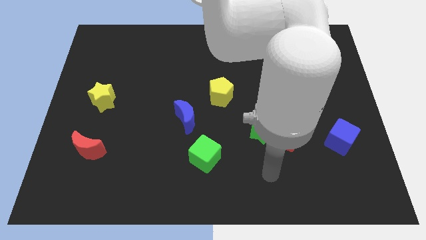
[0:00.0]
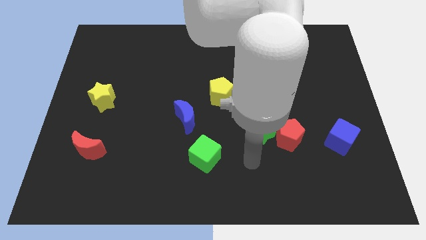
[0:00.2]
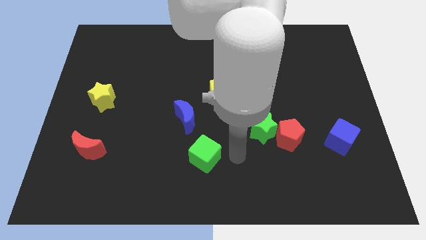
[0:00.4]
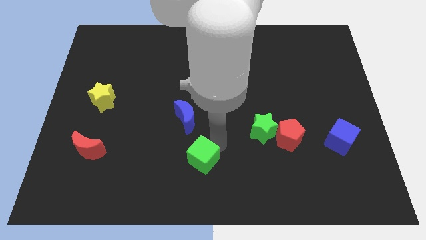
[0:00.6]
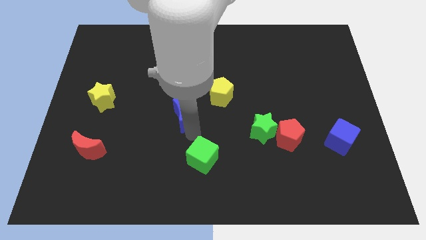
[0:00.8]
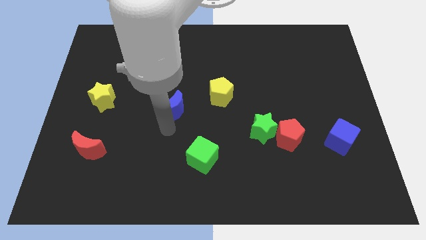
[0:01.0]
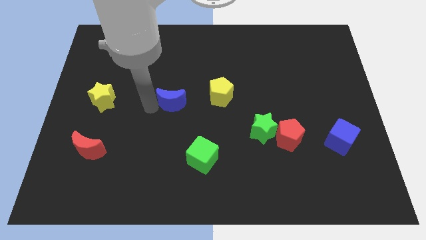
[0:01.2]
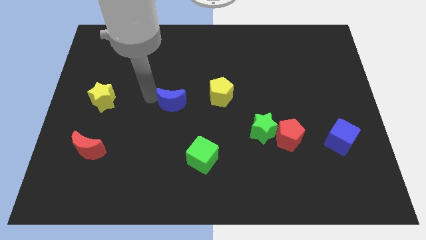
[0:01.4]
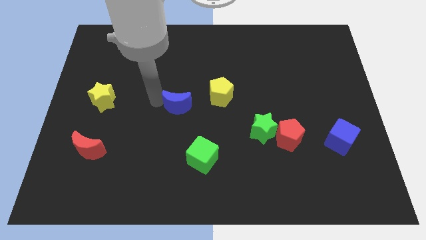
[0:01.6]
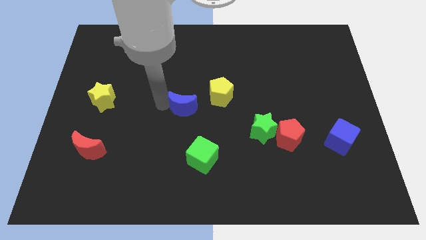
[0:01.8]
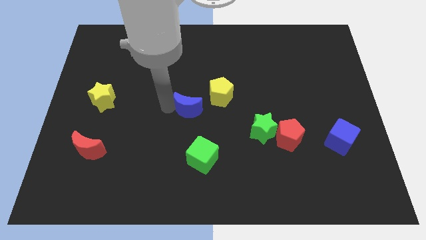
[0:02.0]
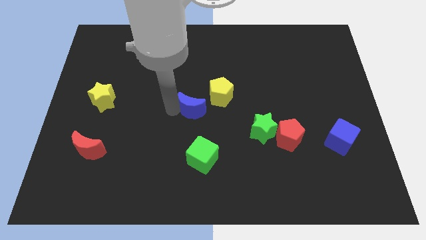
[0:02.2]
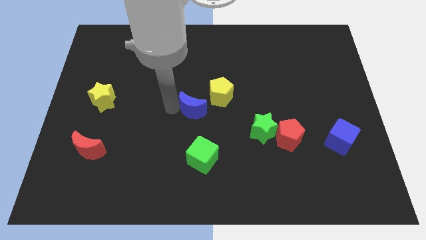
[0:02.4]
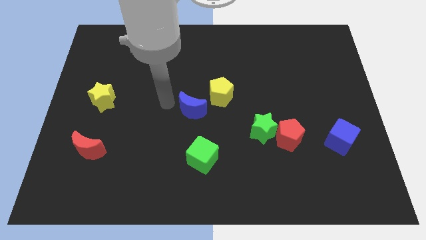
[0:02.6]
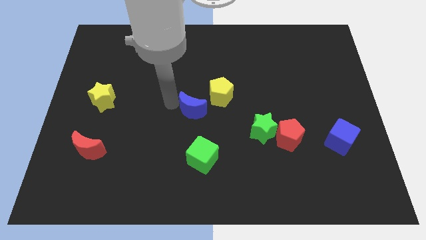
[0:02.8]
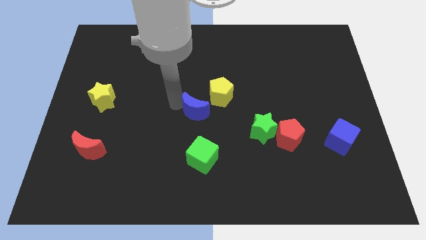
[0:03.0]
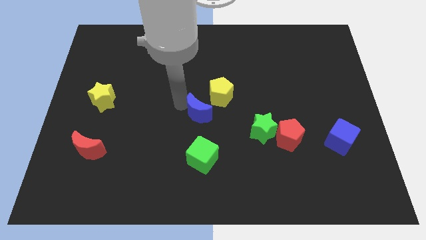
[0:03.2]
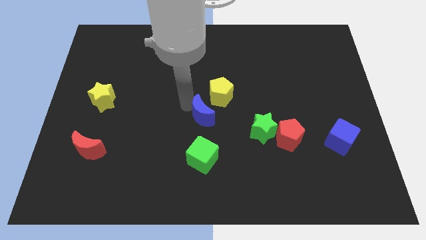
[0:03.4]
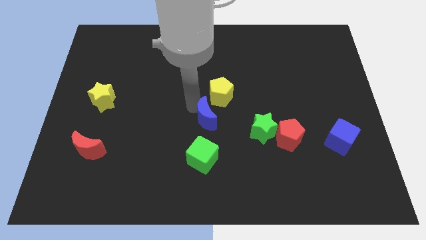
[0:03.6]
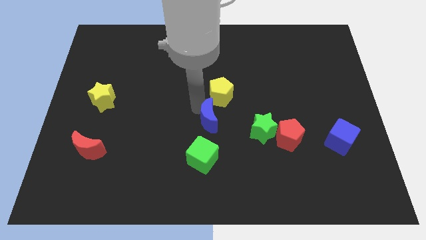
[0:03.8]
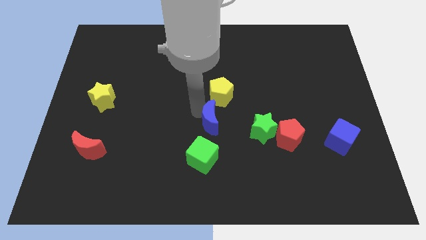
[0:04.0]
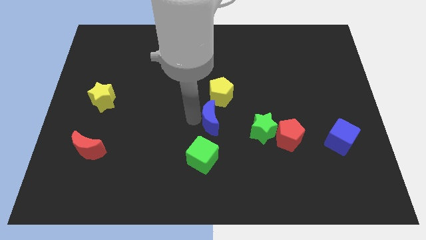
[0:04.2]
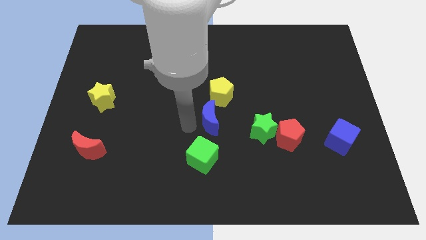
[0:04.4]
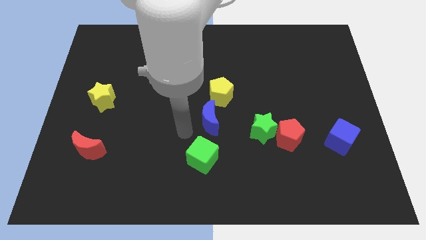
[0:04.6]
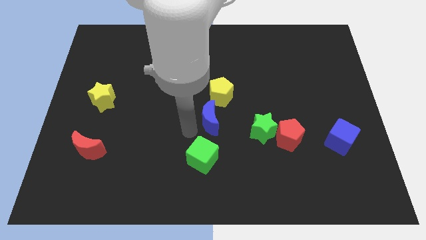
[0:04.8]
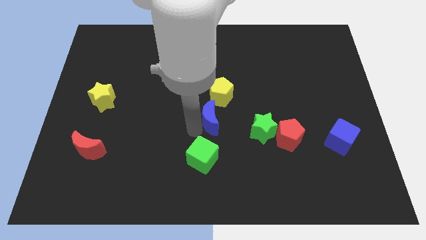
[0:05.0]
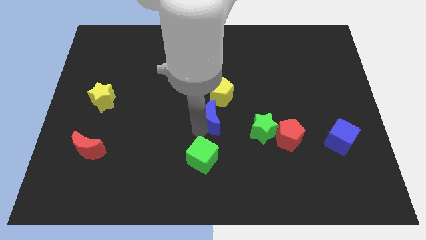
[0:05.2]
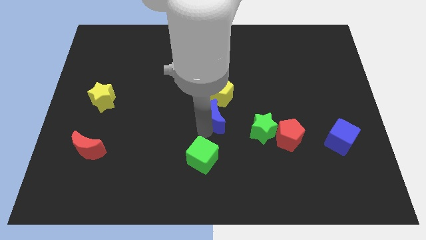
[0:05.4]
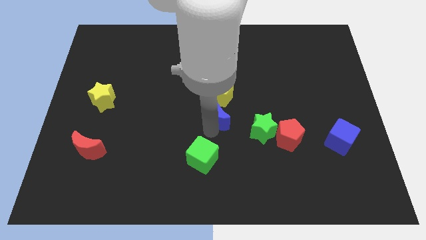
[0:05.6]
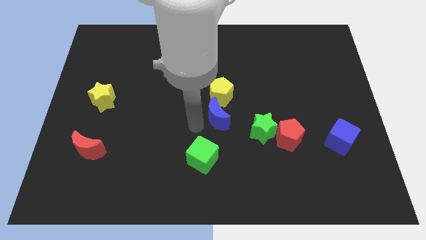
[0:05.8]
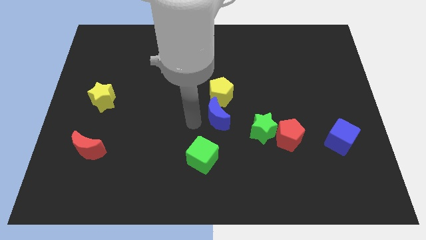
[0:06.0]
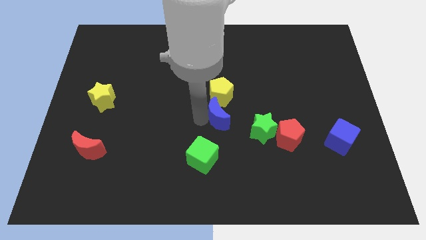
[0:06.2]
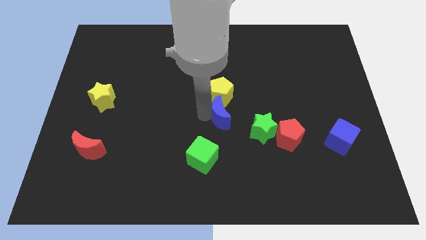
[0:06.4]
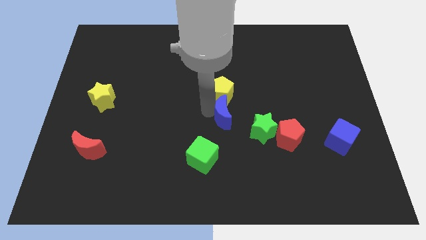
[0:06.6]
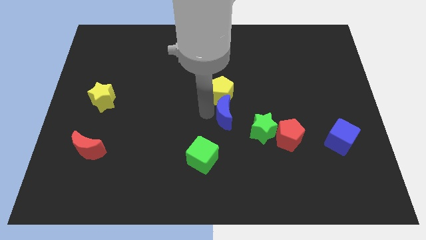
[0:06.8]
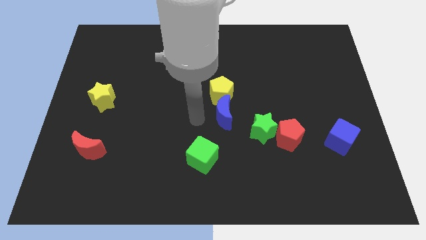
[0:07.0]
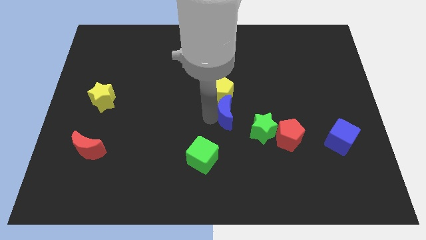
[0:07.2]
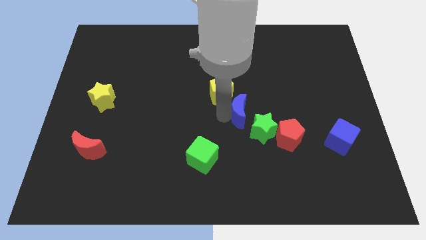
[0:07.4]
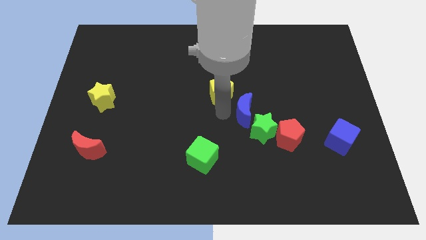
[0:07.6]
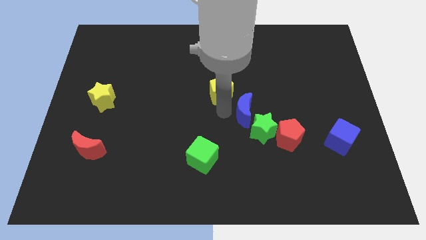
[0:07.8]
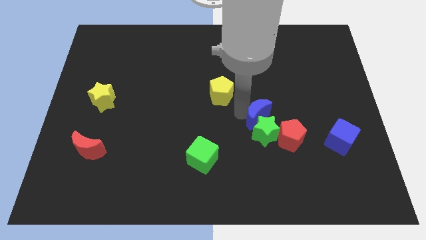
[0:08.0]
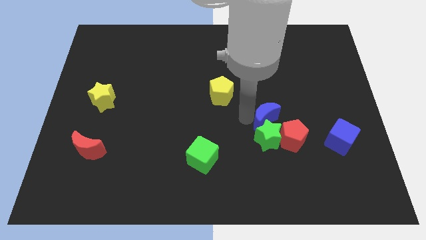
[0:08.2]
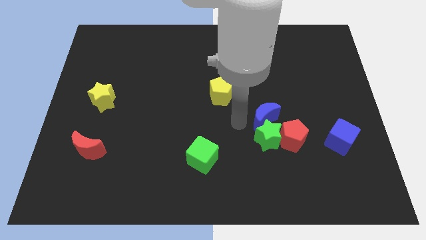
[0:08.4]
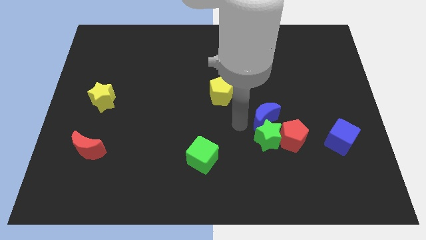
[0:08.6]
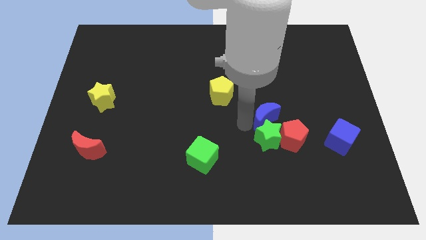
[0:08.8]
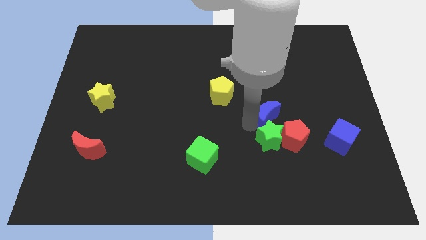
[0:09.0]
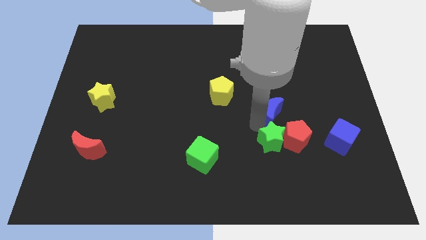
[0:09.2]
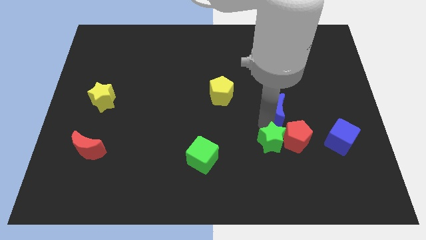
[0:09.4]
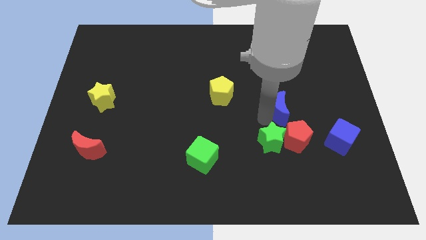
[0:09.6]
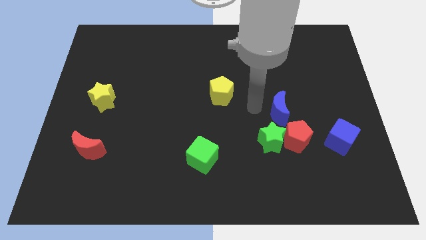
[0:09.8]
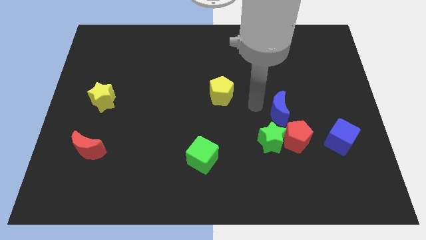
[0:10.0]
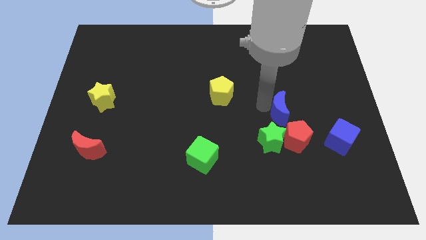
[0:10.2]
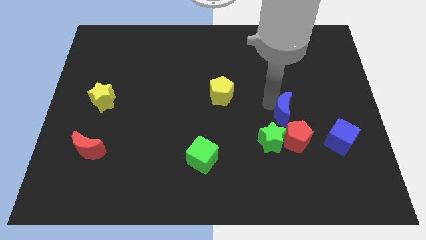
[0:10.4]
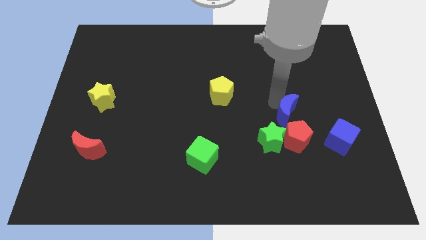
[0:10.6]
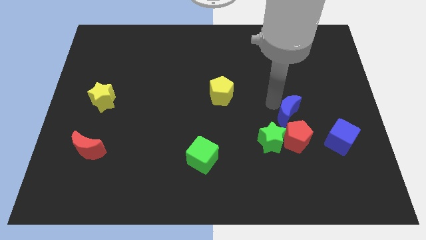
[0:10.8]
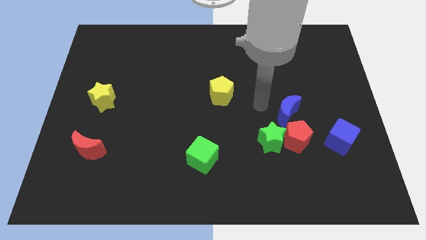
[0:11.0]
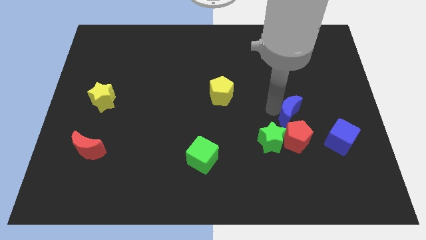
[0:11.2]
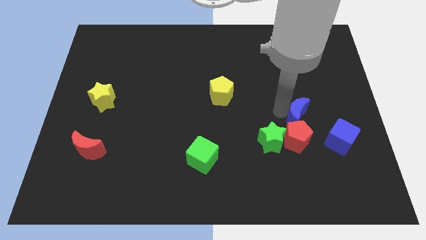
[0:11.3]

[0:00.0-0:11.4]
slide the blue moon to the top left of the blue cube
